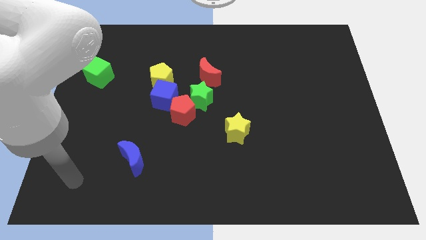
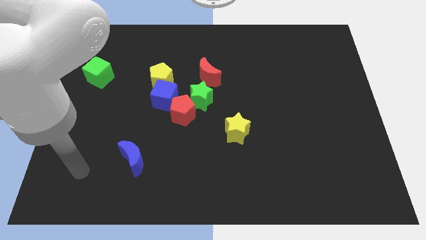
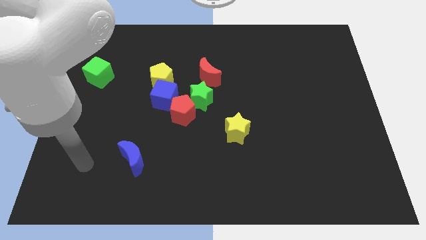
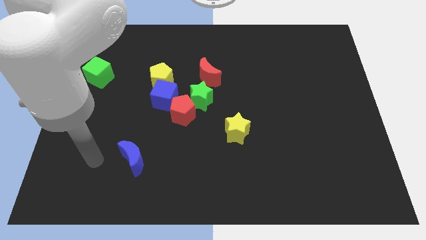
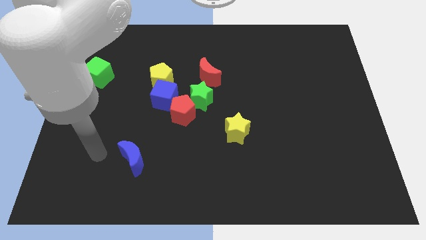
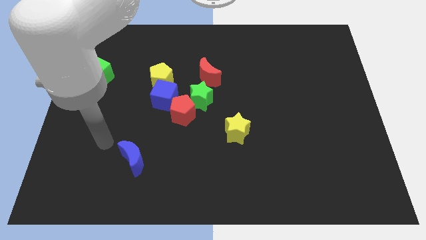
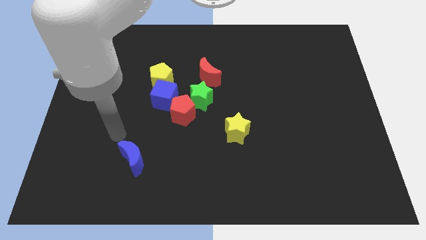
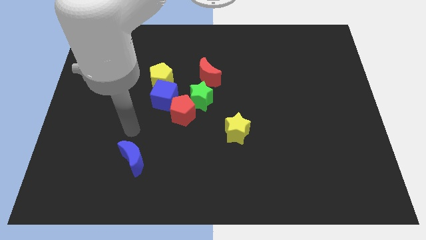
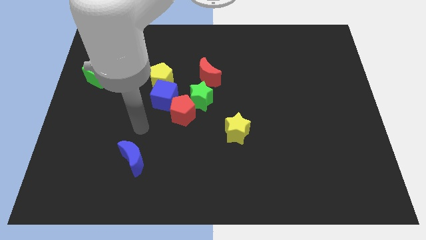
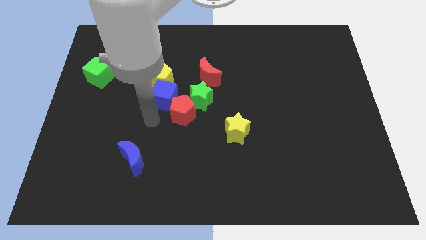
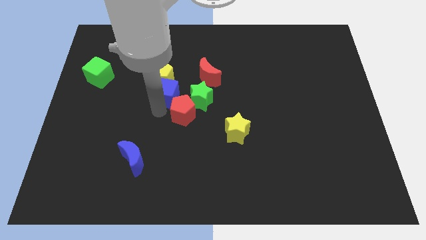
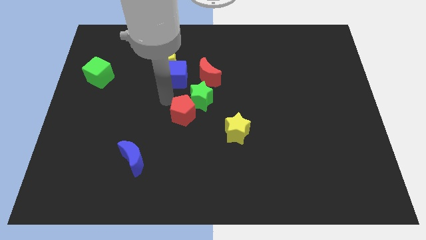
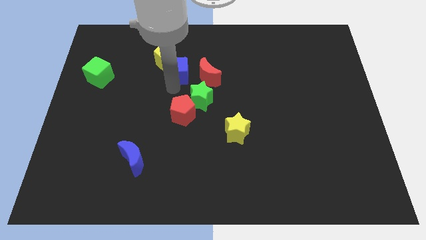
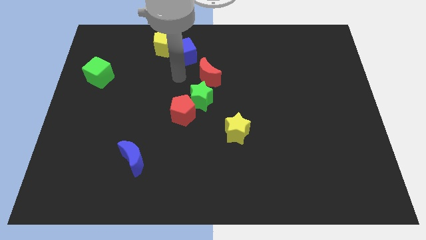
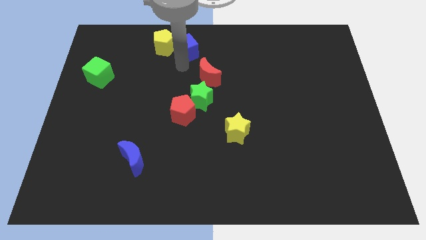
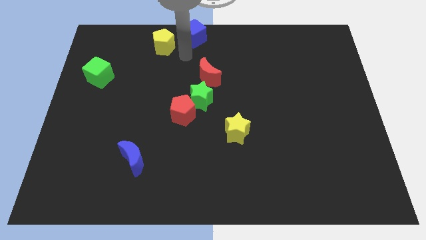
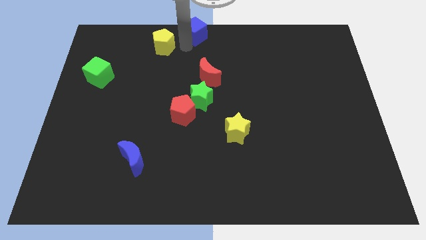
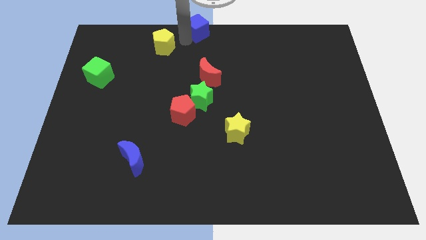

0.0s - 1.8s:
move the yellow pentagon away from the blue cube

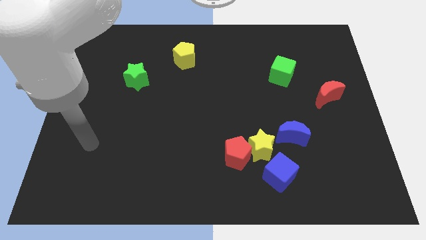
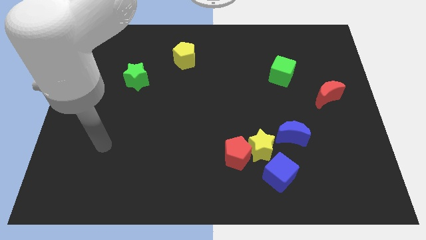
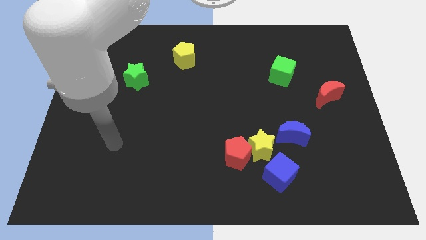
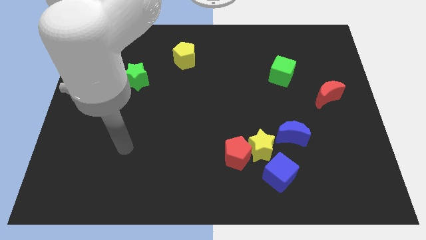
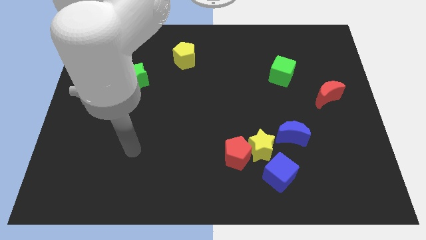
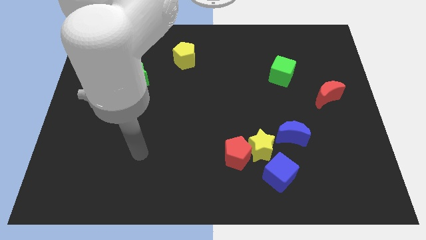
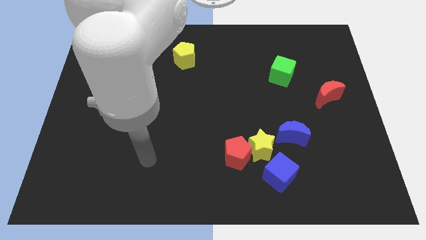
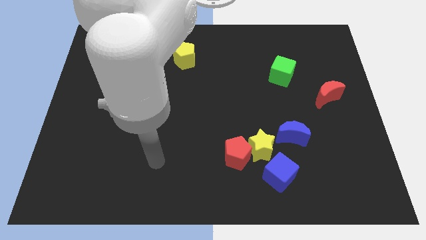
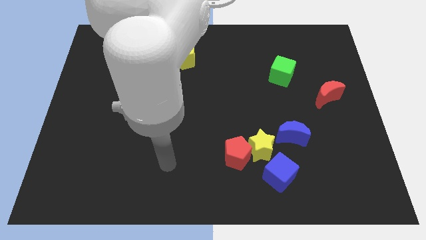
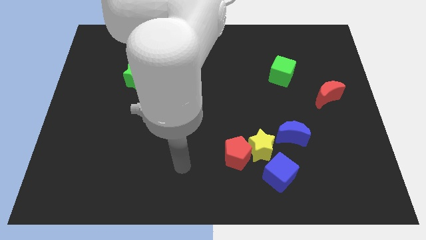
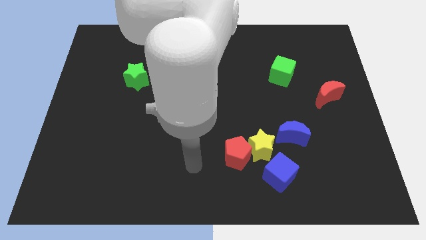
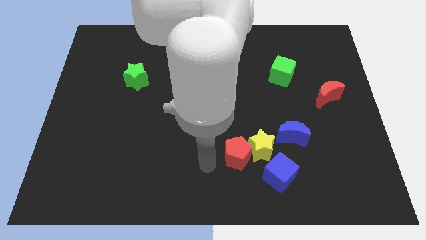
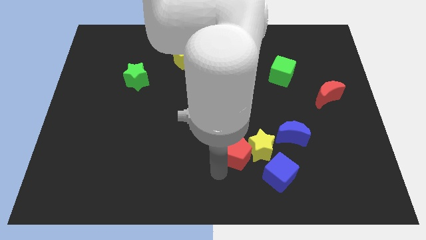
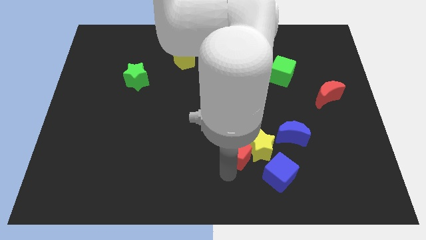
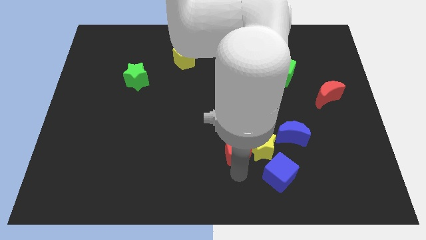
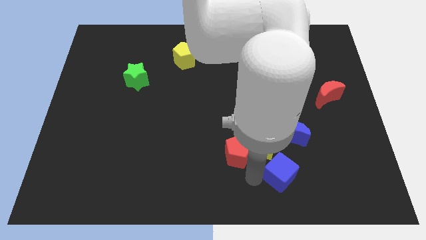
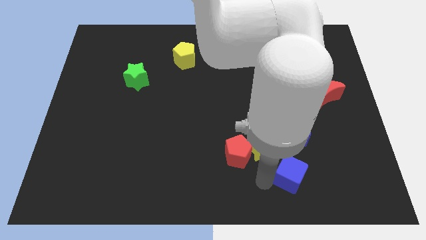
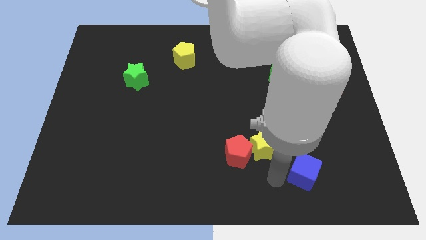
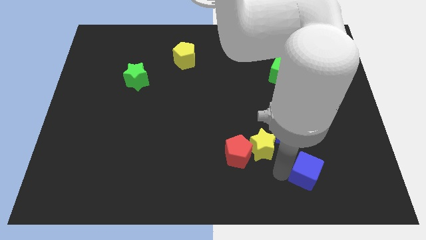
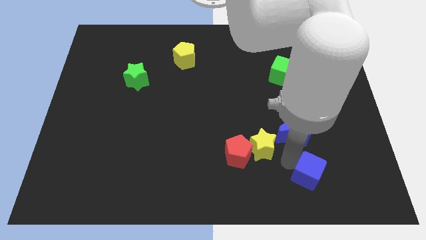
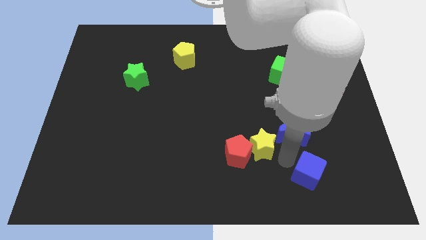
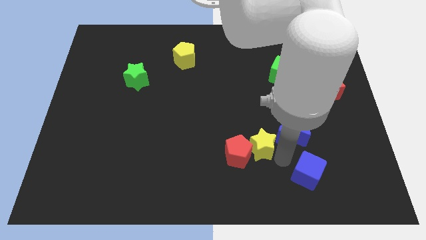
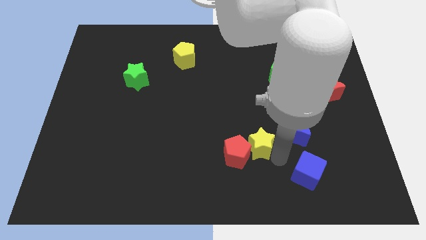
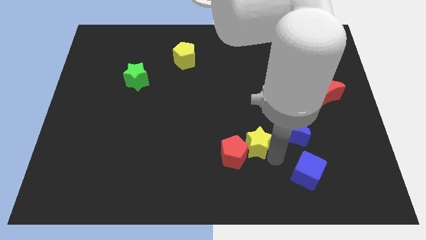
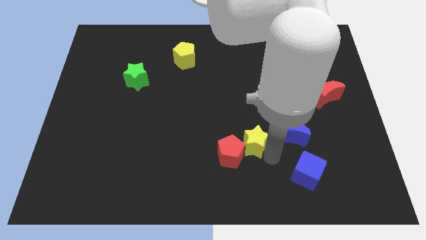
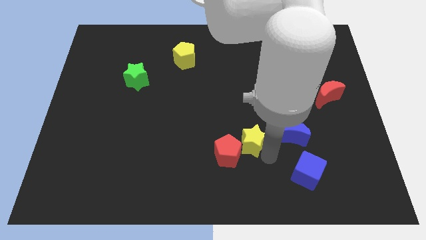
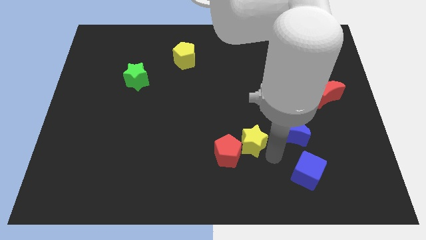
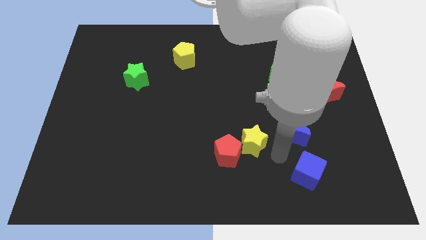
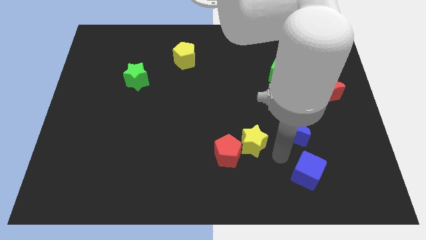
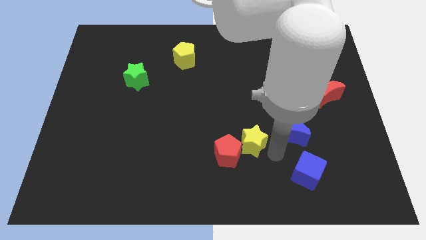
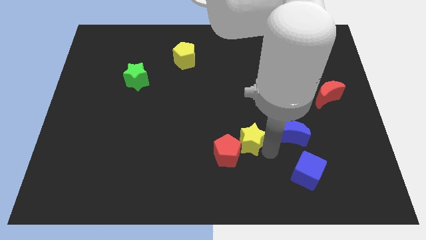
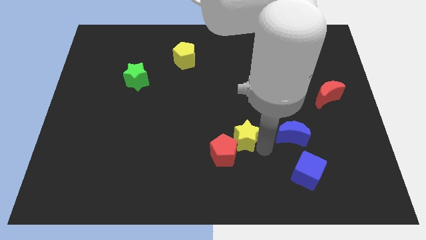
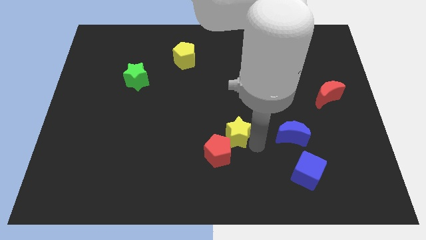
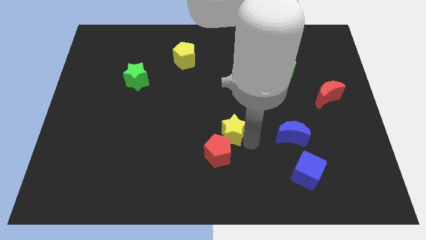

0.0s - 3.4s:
move the yellow star away from the red pentagon, blue cube, and blue moon

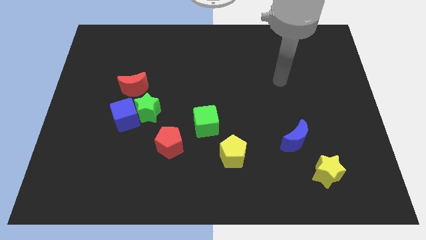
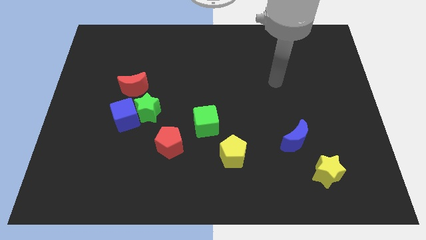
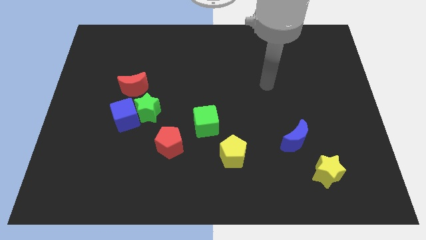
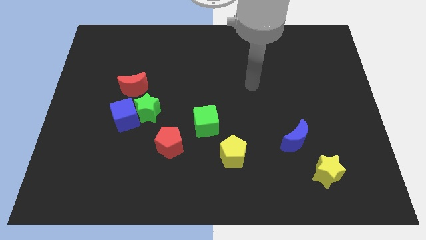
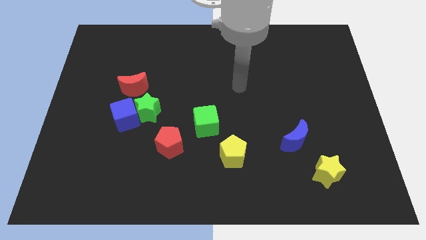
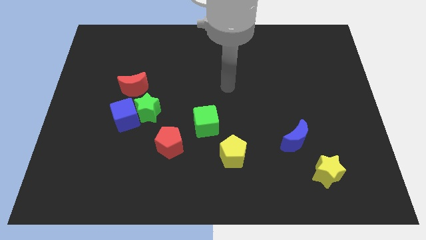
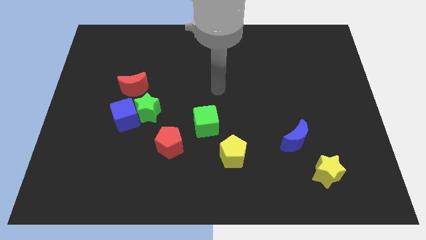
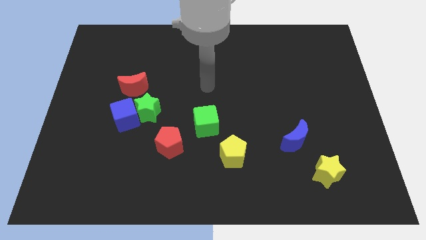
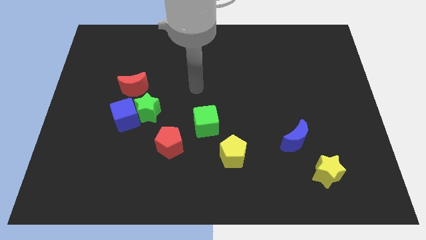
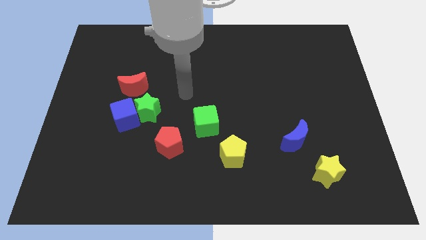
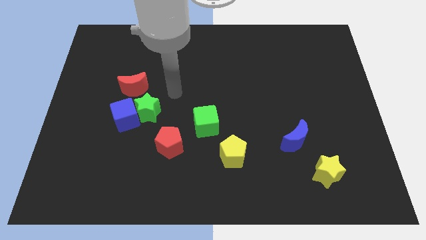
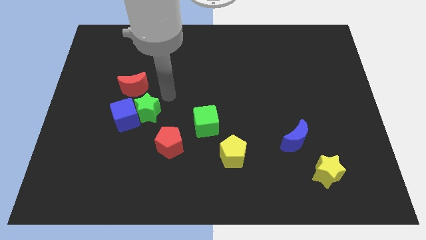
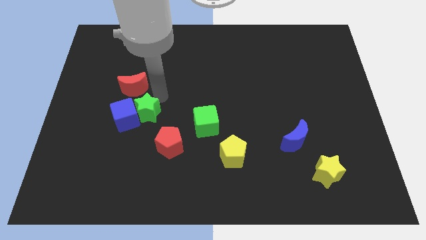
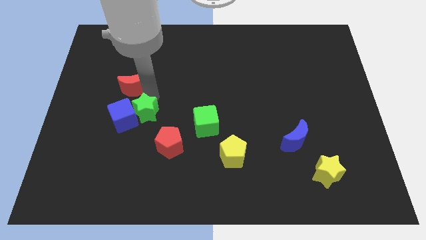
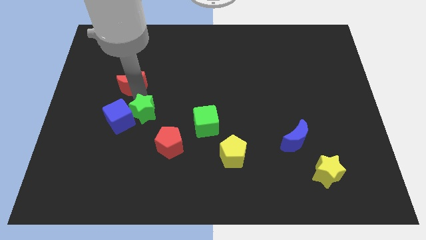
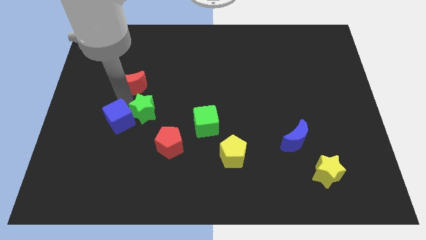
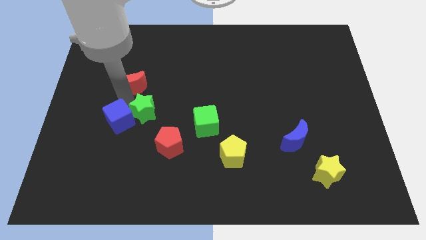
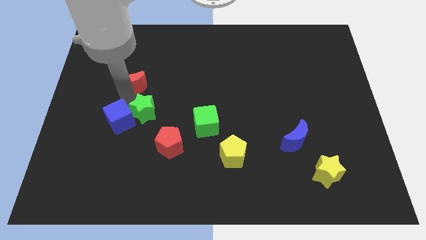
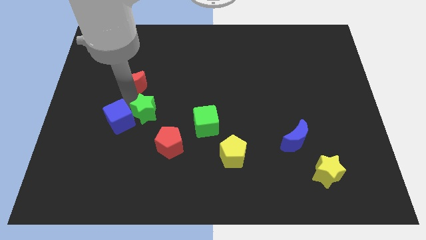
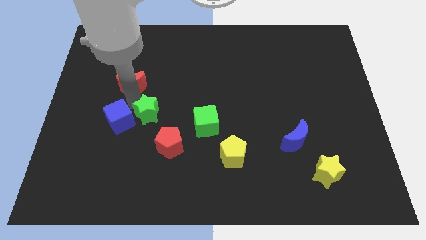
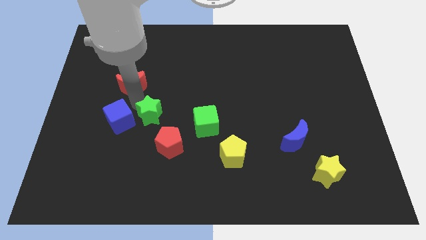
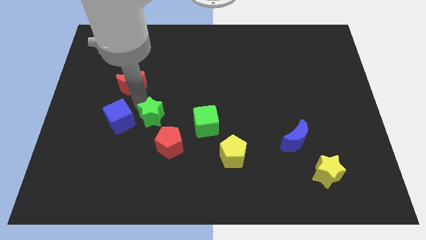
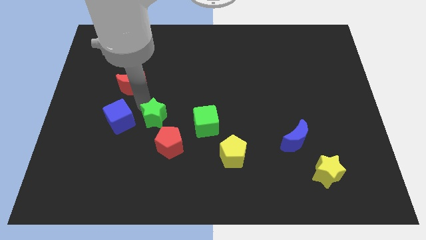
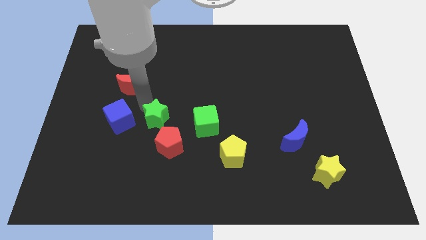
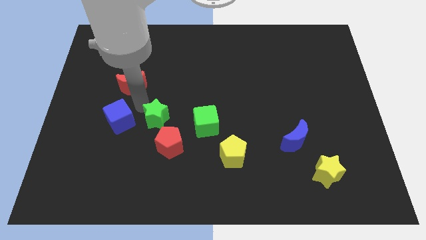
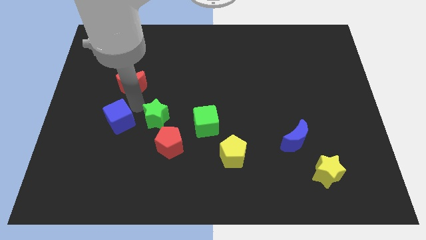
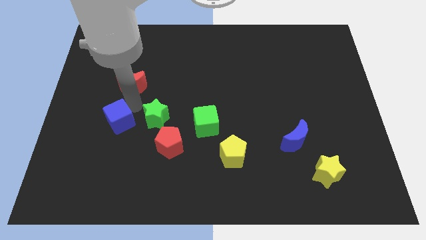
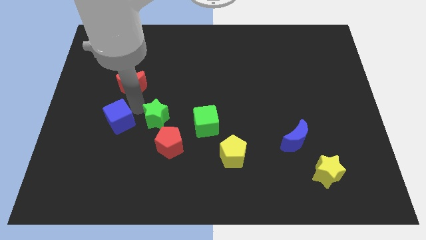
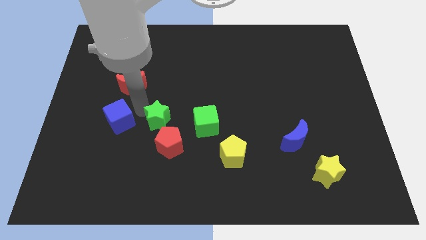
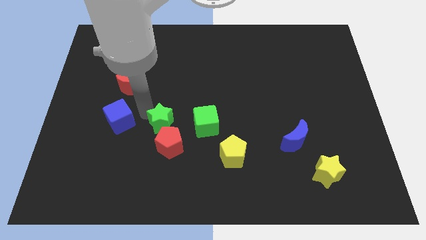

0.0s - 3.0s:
move the green star away from the blue cube and red moon

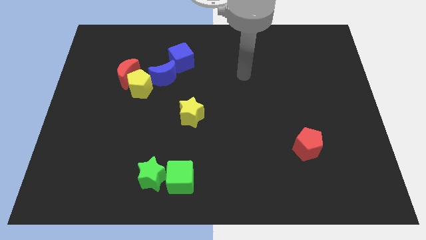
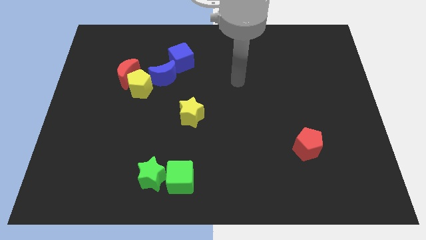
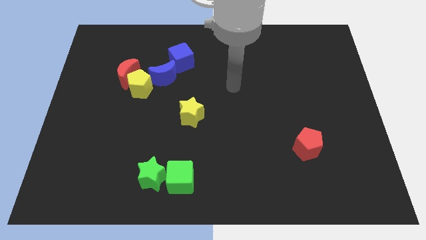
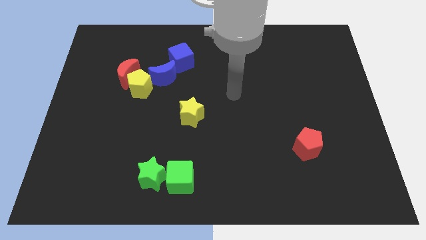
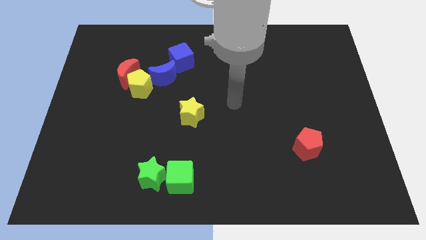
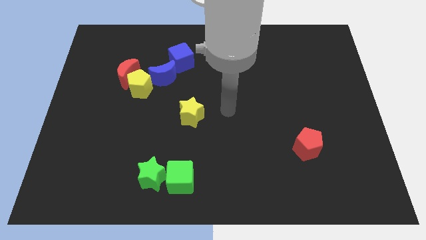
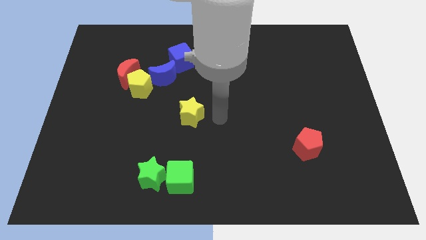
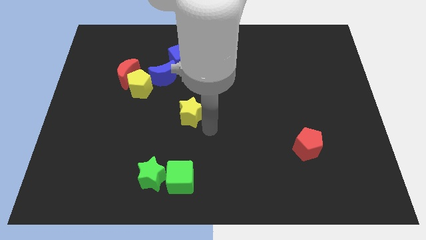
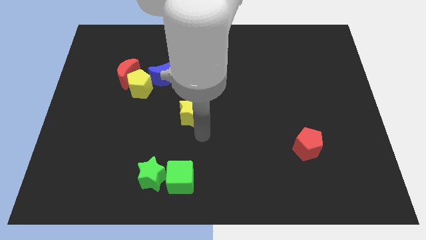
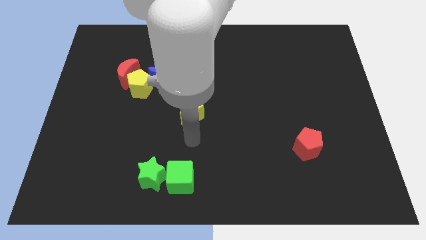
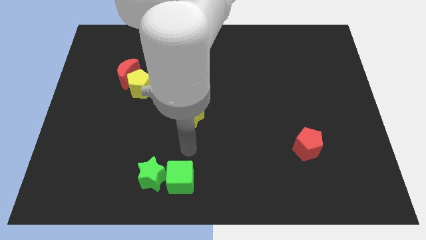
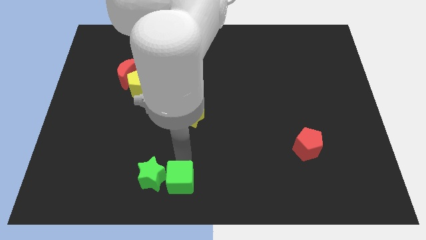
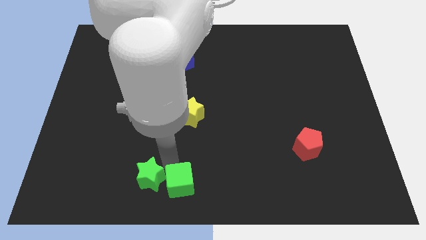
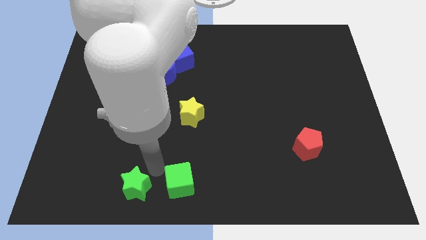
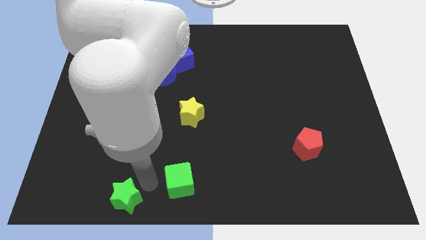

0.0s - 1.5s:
separate the green cube from the green star
